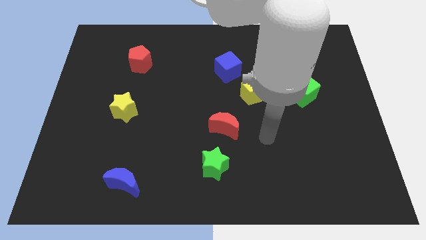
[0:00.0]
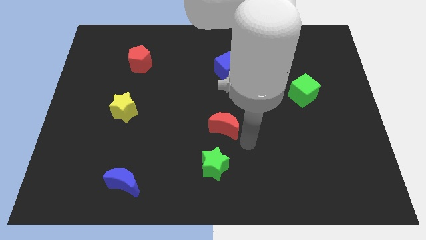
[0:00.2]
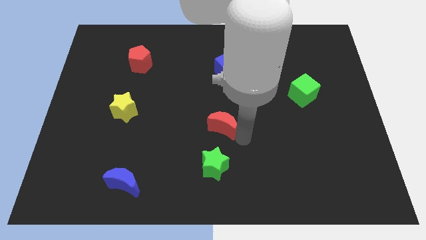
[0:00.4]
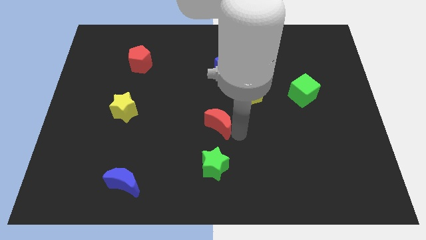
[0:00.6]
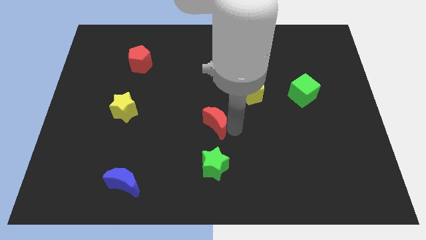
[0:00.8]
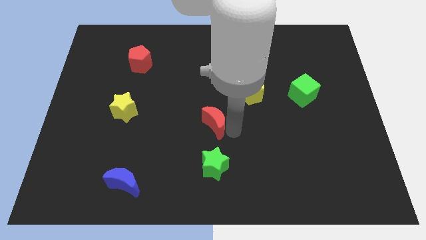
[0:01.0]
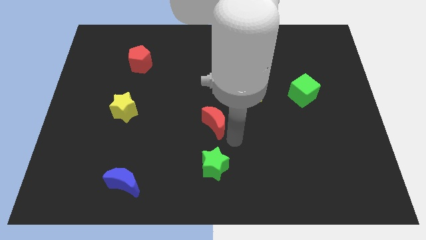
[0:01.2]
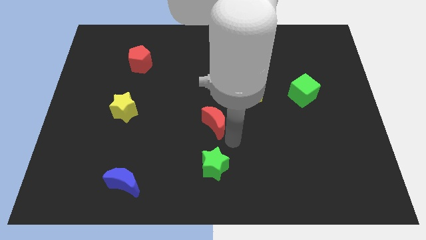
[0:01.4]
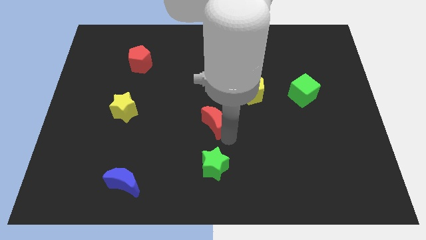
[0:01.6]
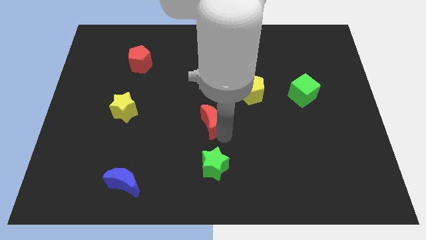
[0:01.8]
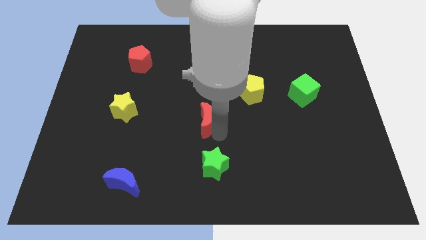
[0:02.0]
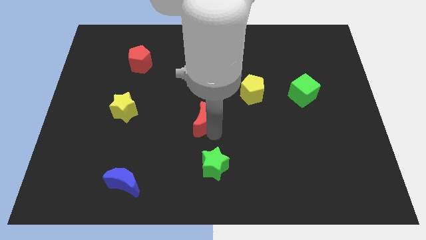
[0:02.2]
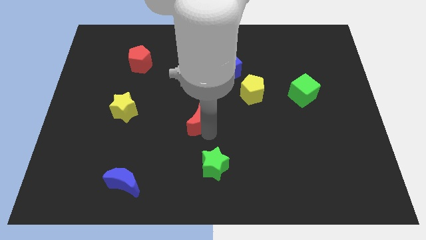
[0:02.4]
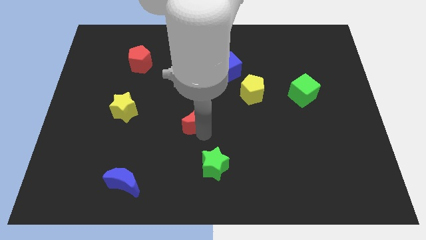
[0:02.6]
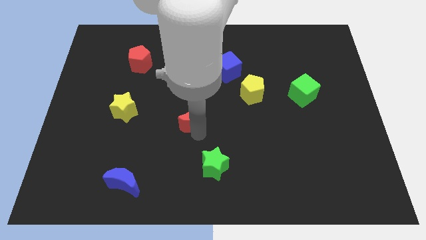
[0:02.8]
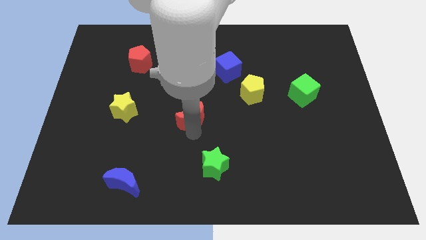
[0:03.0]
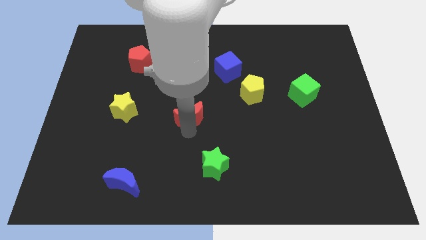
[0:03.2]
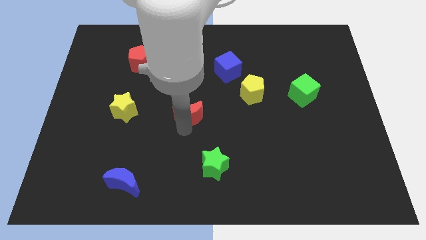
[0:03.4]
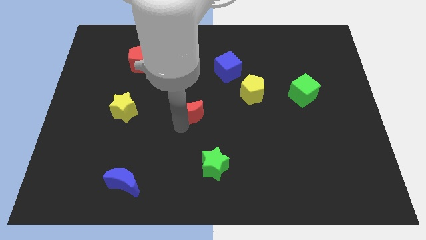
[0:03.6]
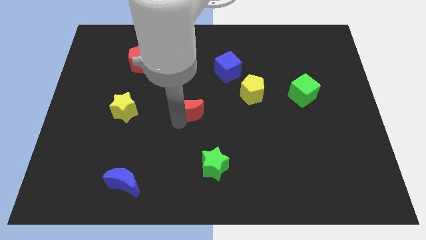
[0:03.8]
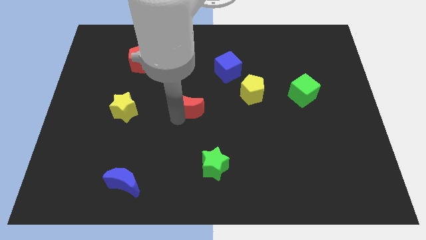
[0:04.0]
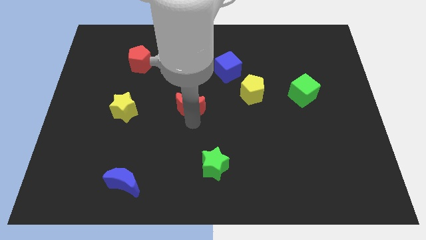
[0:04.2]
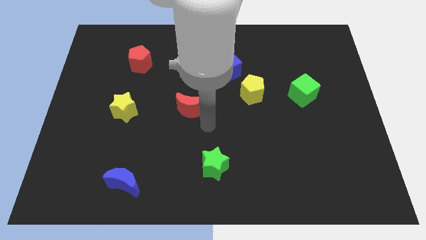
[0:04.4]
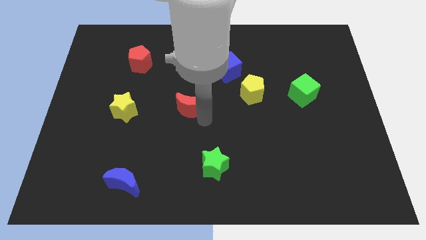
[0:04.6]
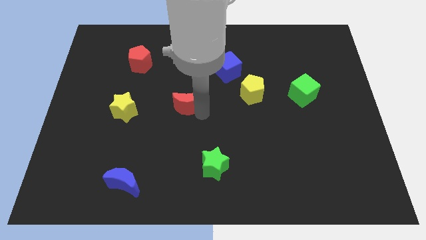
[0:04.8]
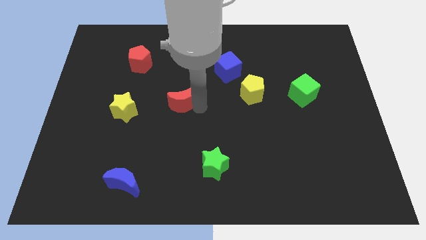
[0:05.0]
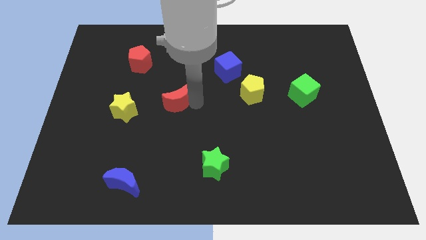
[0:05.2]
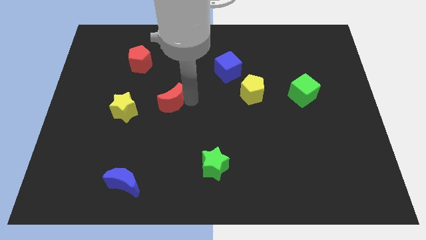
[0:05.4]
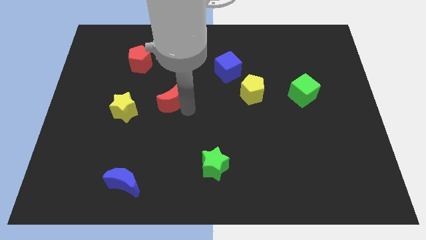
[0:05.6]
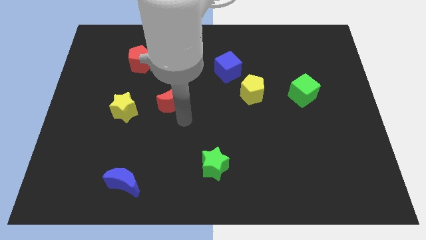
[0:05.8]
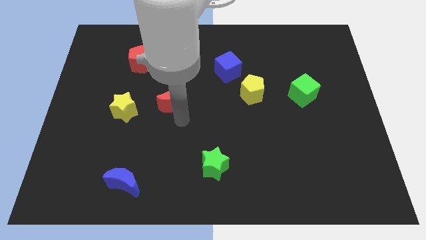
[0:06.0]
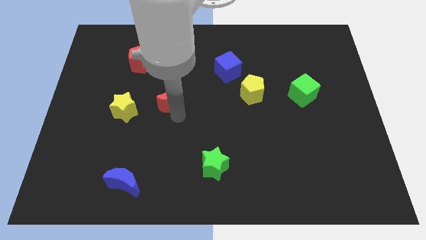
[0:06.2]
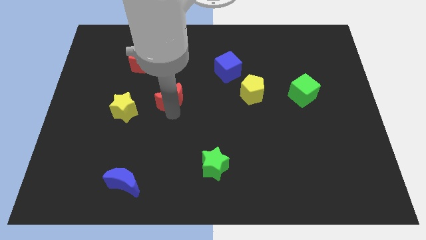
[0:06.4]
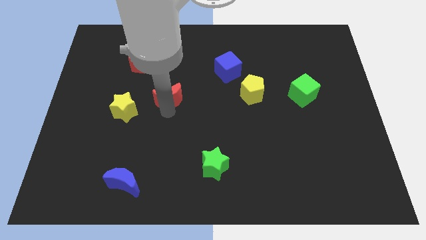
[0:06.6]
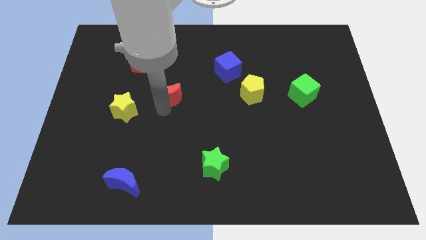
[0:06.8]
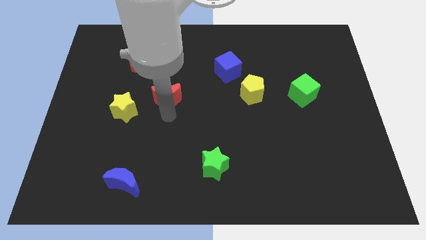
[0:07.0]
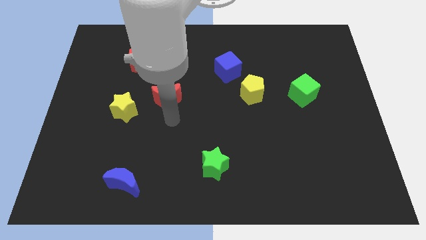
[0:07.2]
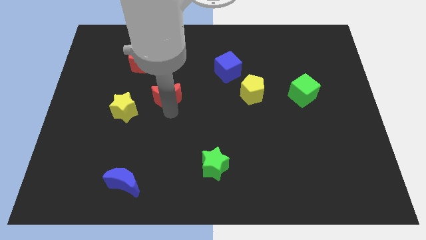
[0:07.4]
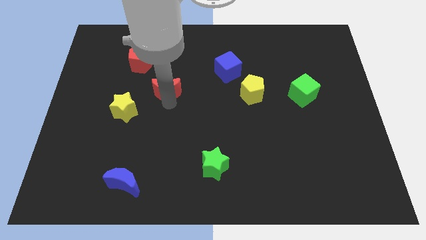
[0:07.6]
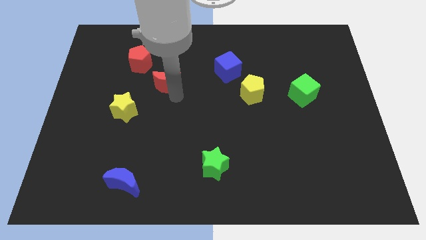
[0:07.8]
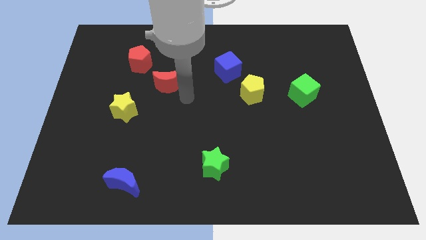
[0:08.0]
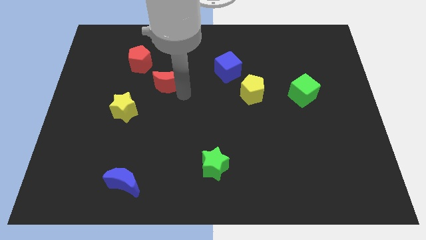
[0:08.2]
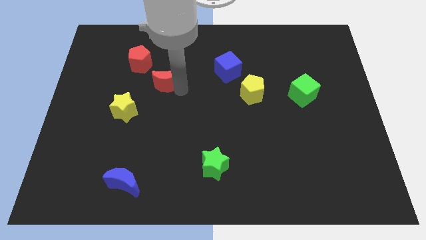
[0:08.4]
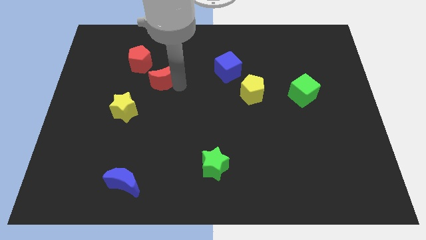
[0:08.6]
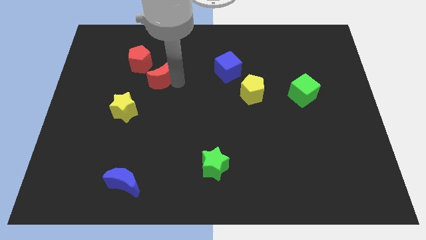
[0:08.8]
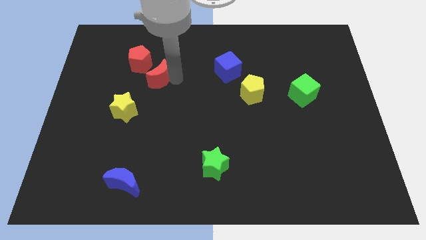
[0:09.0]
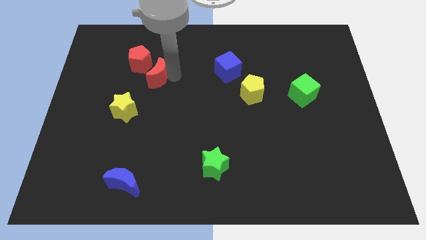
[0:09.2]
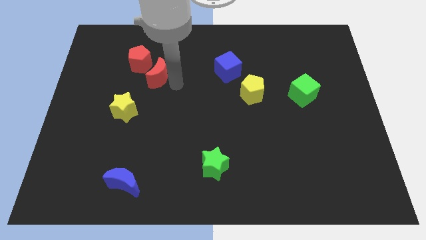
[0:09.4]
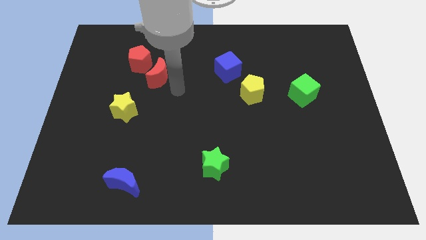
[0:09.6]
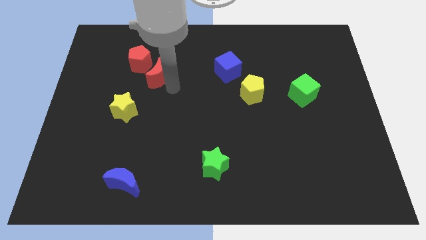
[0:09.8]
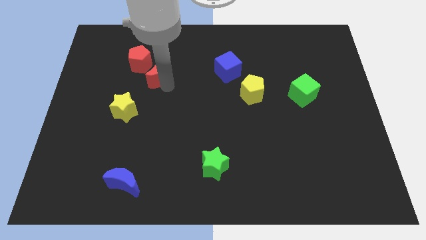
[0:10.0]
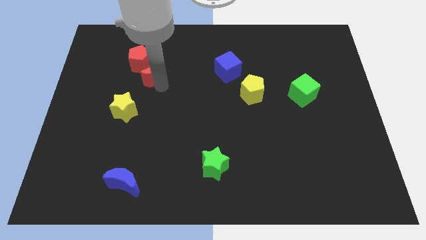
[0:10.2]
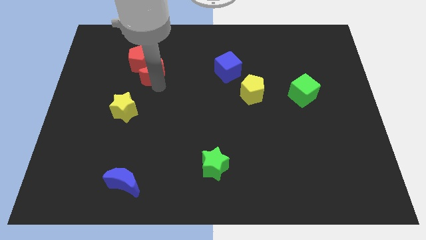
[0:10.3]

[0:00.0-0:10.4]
move the red moon close to the red pentagon
